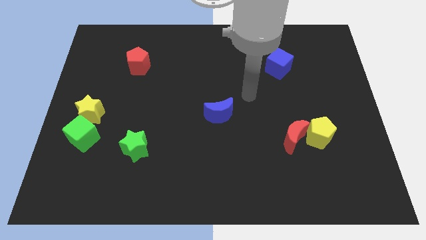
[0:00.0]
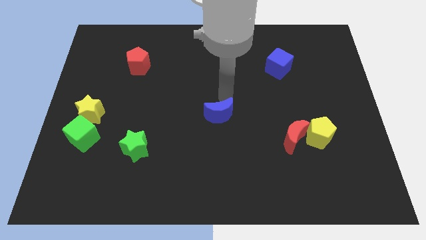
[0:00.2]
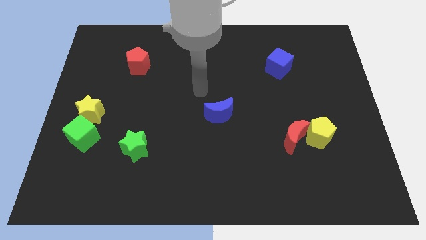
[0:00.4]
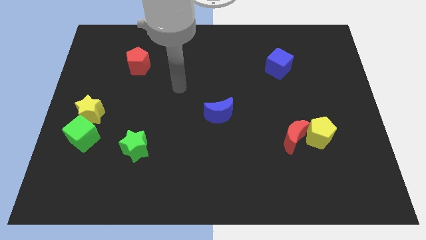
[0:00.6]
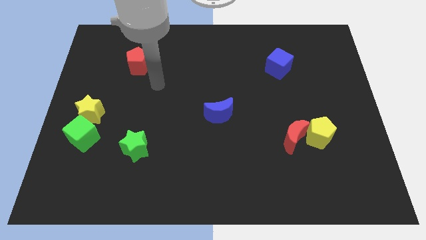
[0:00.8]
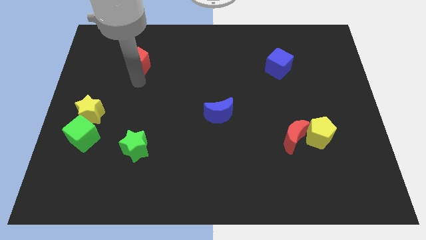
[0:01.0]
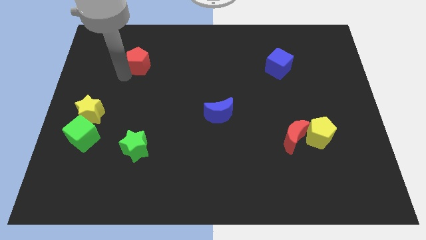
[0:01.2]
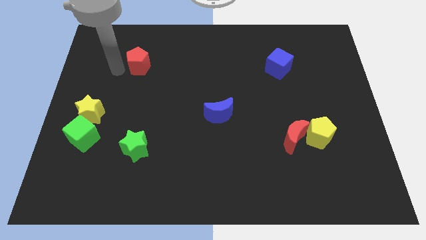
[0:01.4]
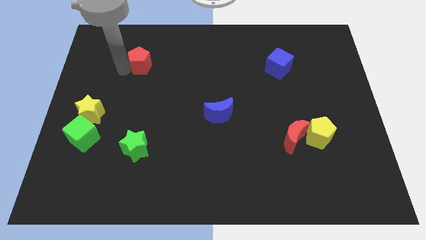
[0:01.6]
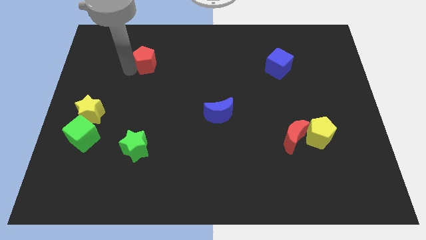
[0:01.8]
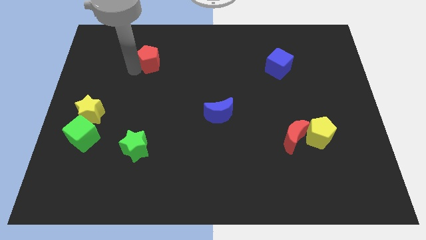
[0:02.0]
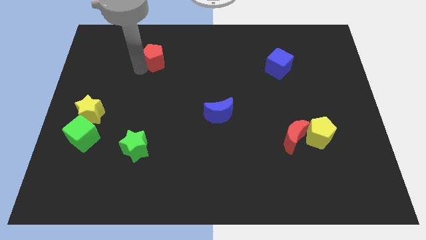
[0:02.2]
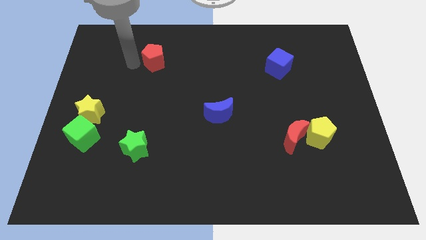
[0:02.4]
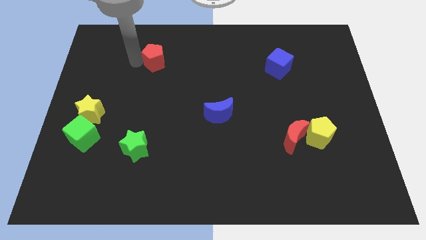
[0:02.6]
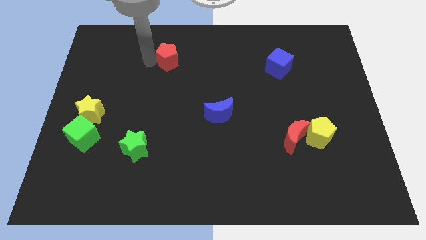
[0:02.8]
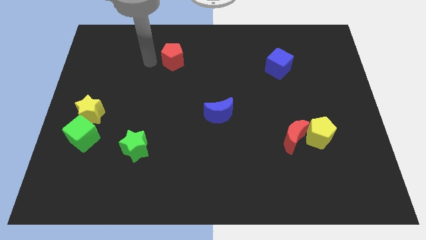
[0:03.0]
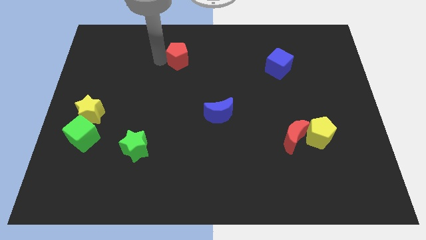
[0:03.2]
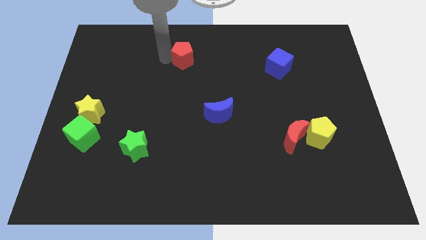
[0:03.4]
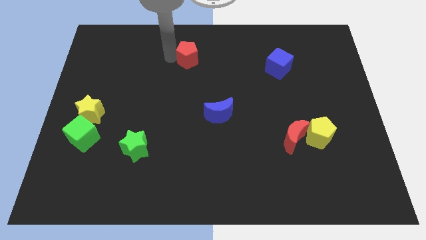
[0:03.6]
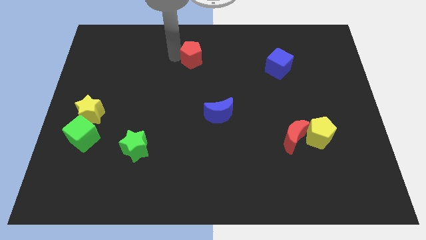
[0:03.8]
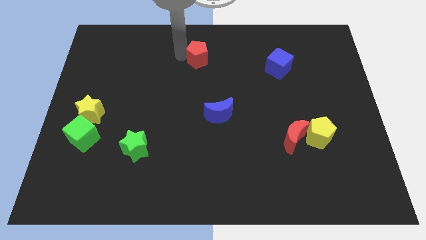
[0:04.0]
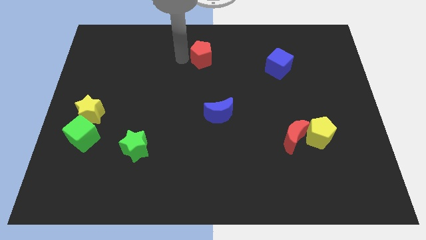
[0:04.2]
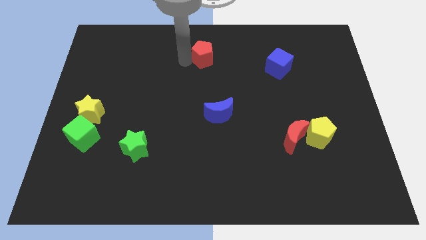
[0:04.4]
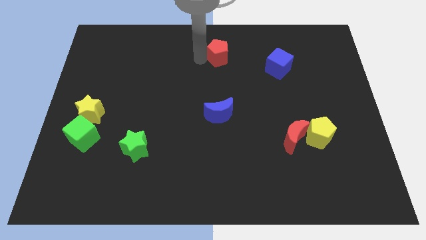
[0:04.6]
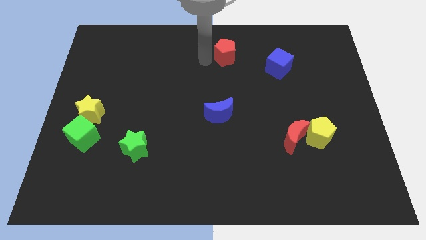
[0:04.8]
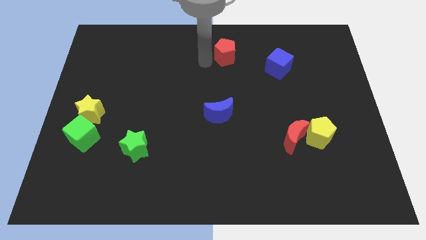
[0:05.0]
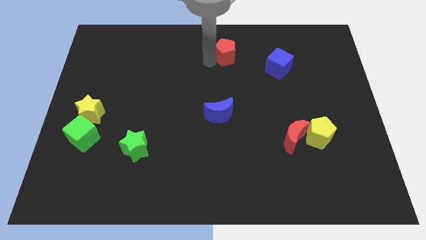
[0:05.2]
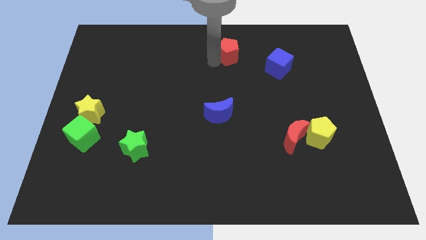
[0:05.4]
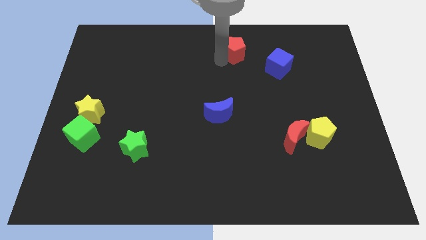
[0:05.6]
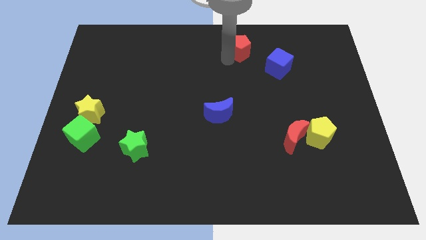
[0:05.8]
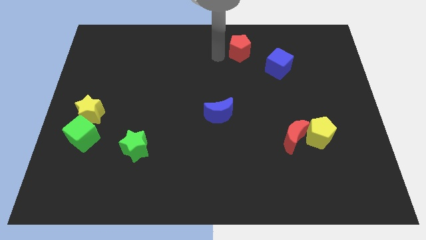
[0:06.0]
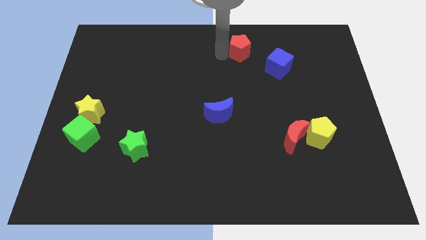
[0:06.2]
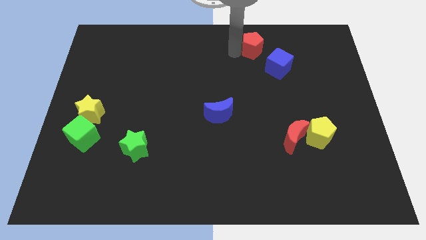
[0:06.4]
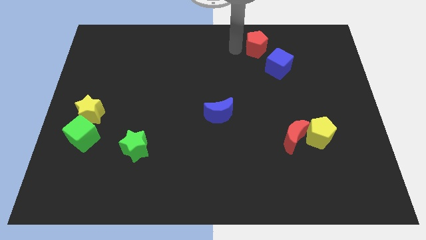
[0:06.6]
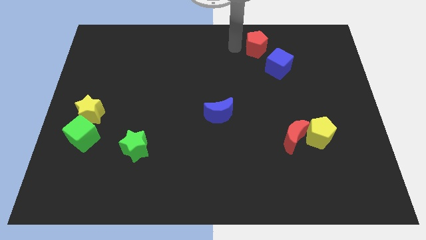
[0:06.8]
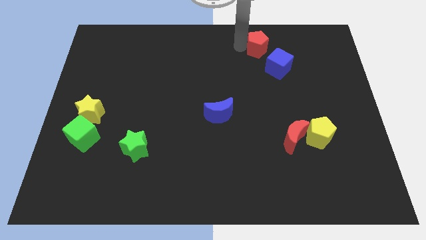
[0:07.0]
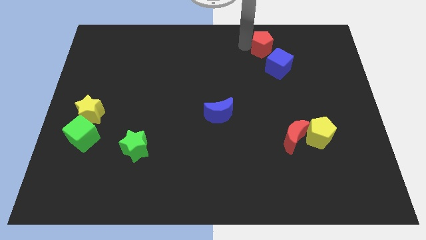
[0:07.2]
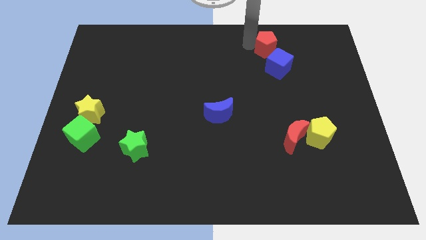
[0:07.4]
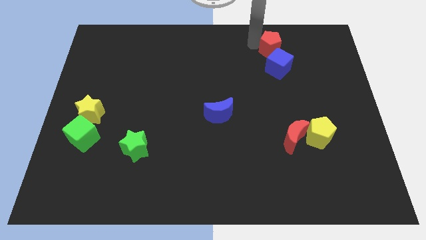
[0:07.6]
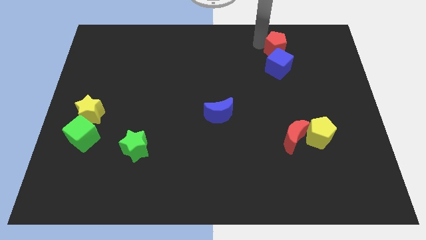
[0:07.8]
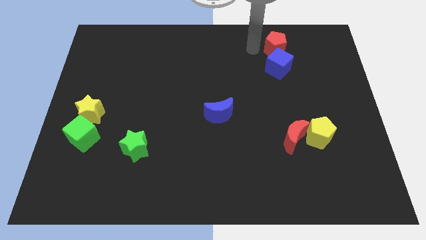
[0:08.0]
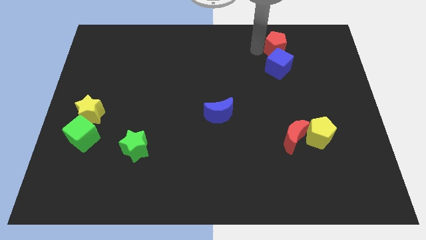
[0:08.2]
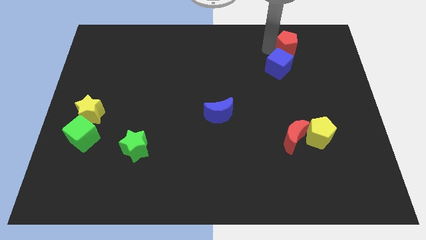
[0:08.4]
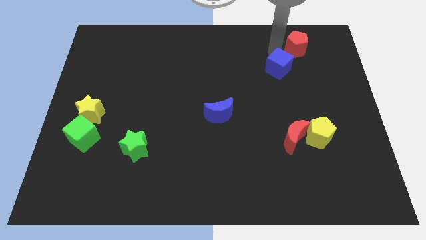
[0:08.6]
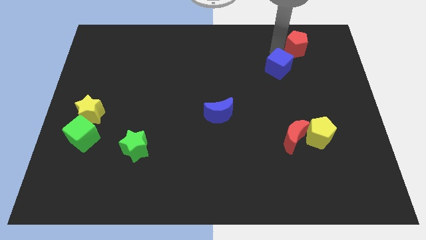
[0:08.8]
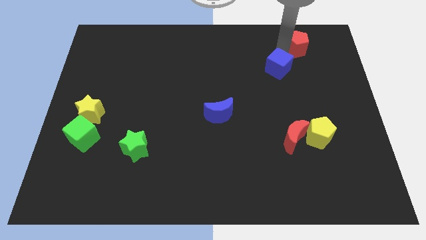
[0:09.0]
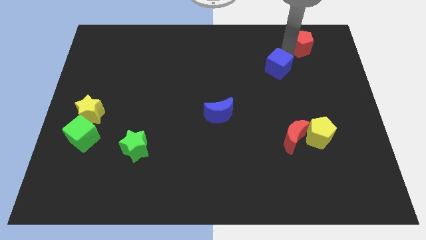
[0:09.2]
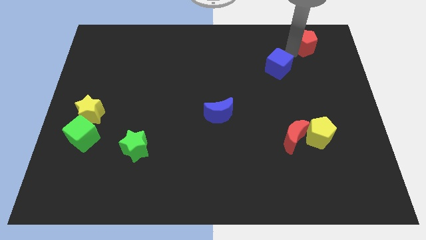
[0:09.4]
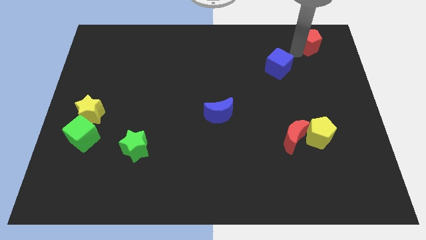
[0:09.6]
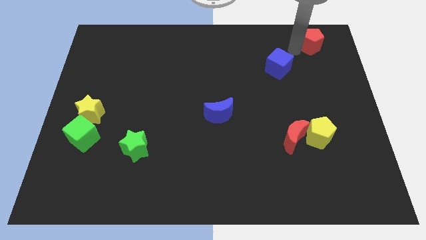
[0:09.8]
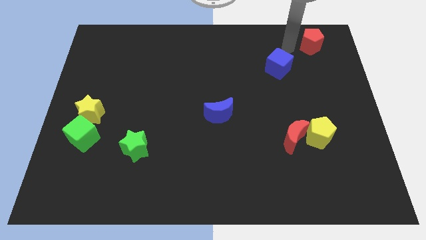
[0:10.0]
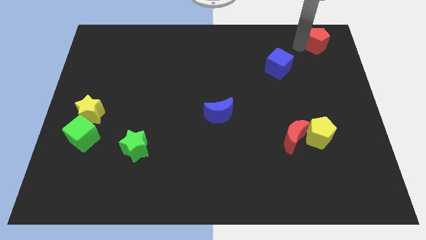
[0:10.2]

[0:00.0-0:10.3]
slide the red pentagon to the top right corner

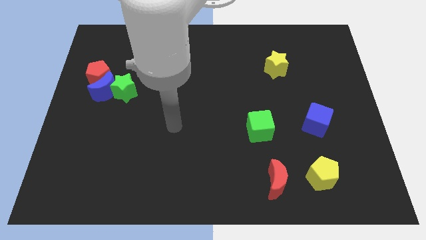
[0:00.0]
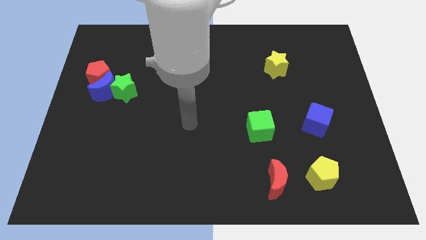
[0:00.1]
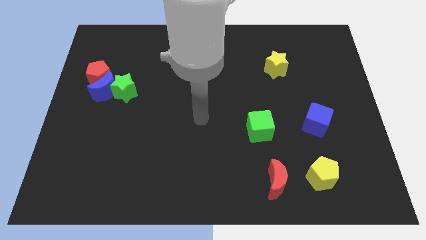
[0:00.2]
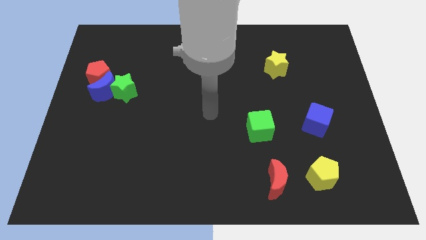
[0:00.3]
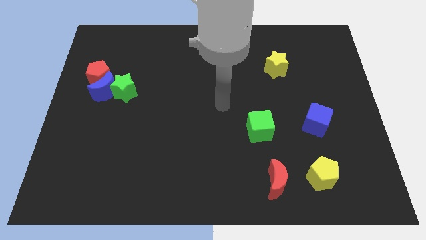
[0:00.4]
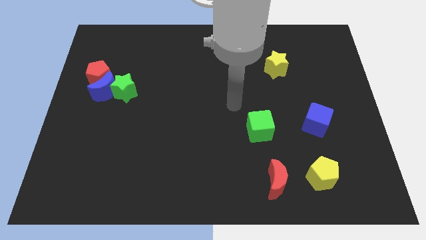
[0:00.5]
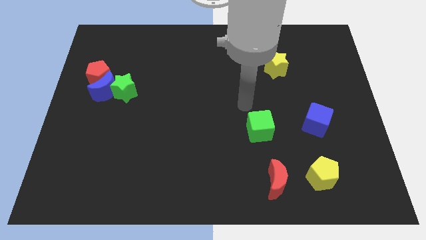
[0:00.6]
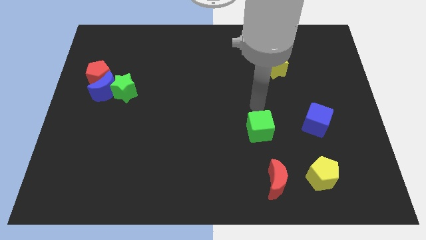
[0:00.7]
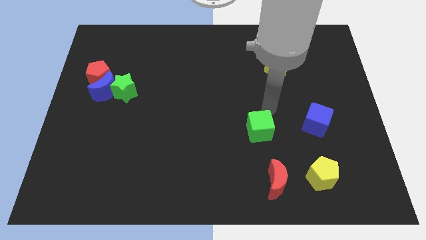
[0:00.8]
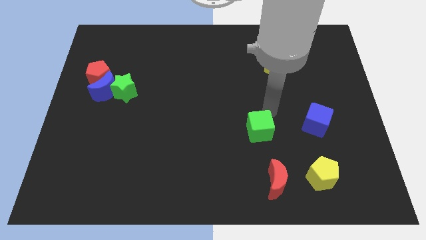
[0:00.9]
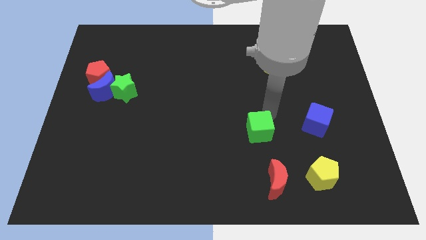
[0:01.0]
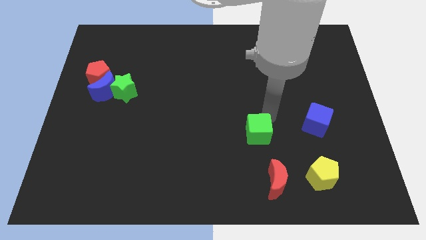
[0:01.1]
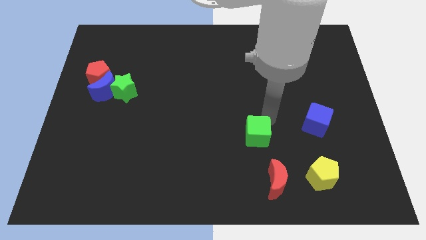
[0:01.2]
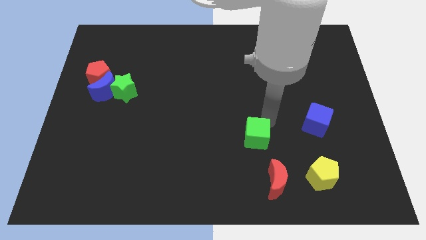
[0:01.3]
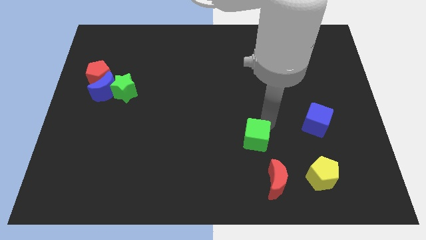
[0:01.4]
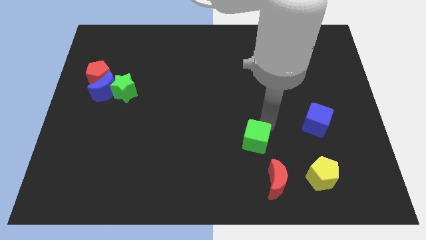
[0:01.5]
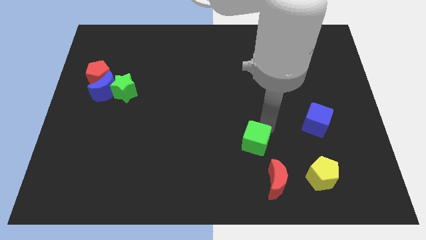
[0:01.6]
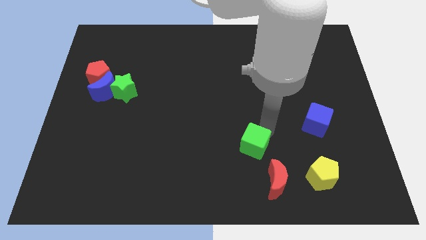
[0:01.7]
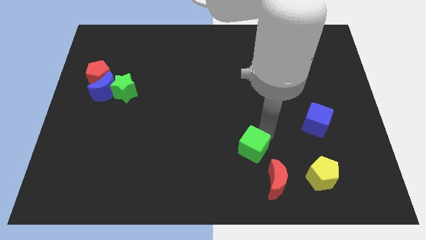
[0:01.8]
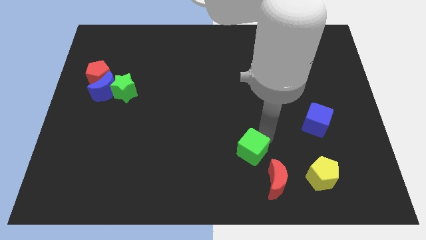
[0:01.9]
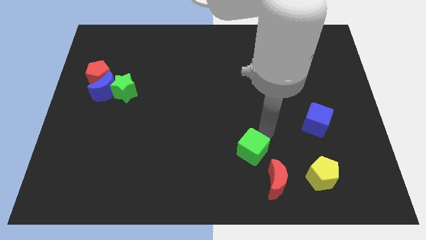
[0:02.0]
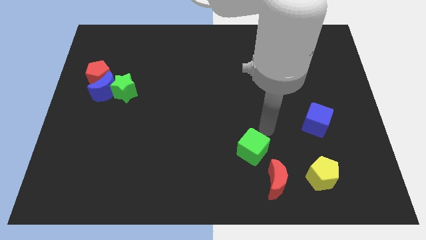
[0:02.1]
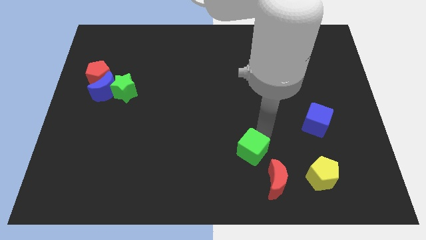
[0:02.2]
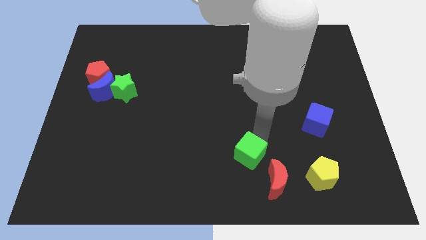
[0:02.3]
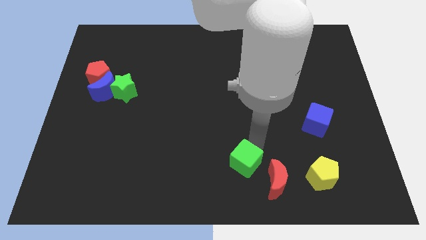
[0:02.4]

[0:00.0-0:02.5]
move the green cube to the bottom
